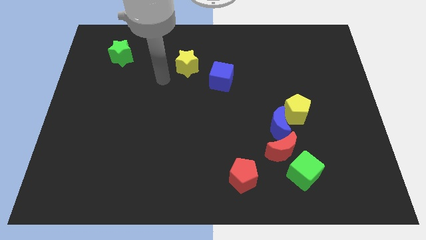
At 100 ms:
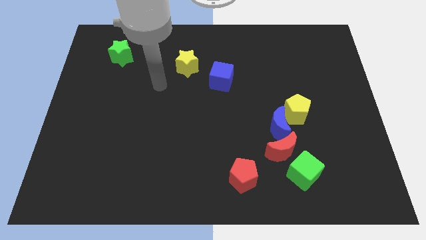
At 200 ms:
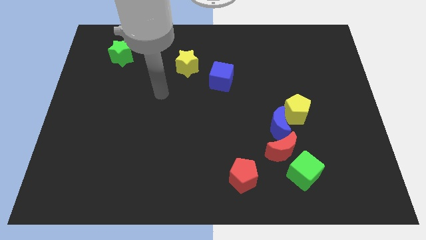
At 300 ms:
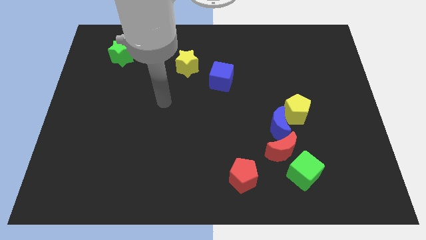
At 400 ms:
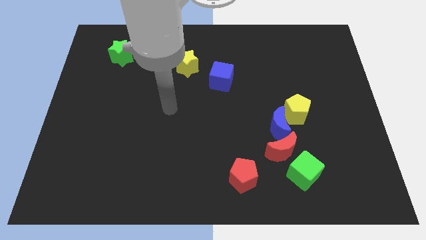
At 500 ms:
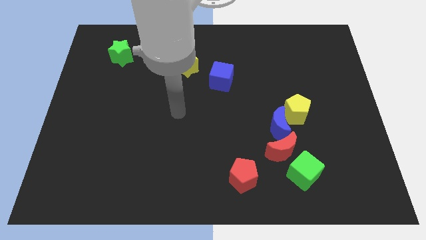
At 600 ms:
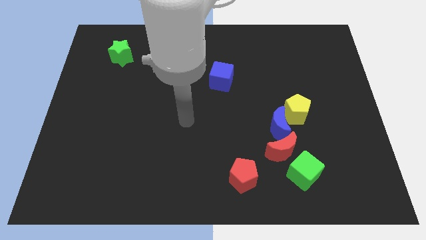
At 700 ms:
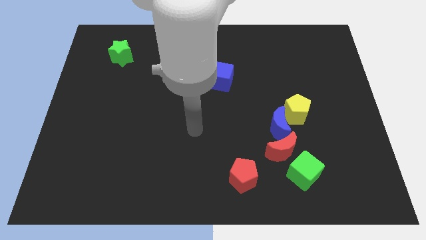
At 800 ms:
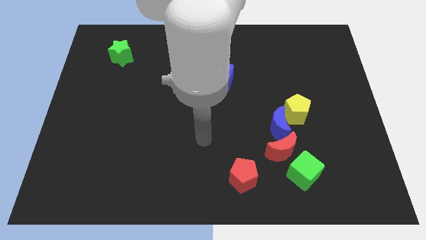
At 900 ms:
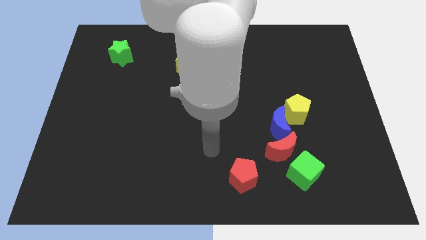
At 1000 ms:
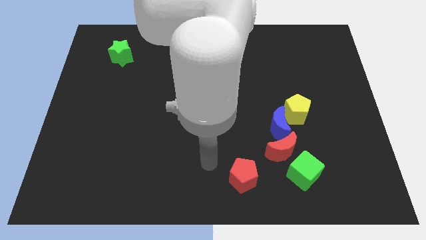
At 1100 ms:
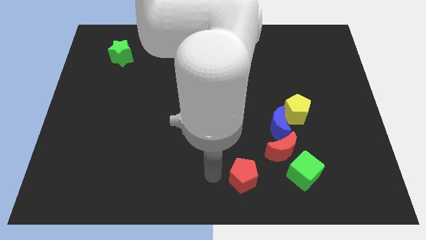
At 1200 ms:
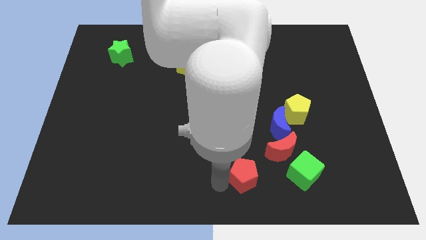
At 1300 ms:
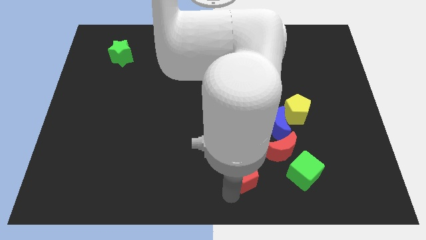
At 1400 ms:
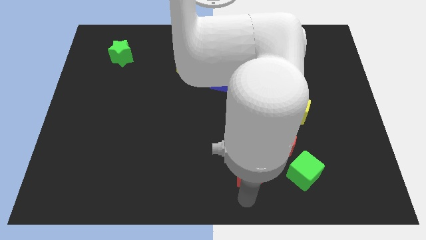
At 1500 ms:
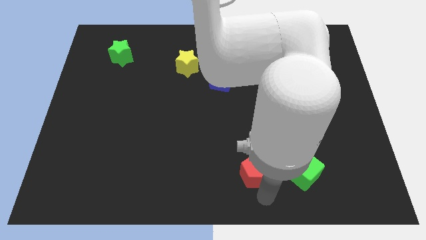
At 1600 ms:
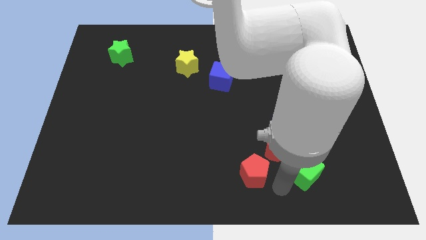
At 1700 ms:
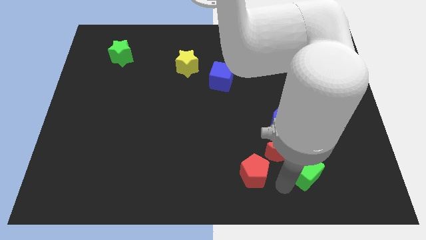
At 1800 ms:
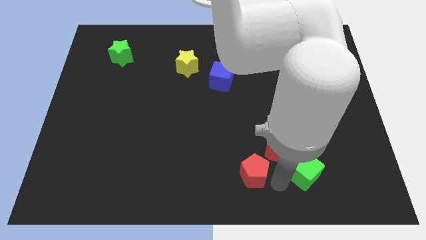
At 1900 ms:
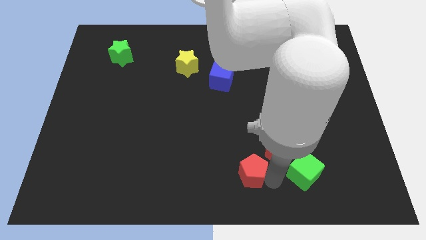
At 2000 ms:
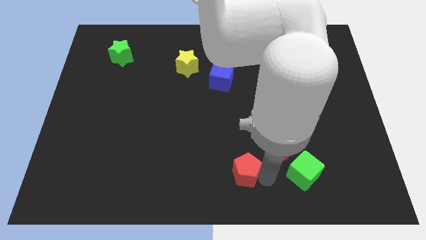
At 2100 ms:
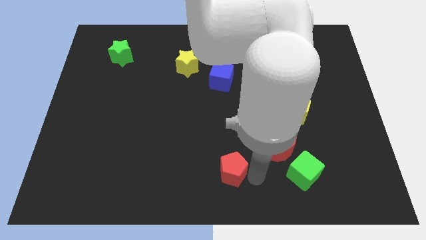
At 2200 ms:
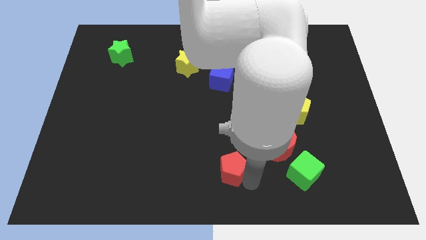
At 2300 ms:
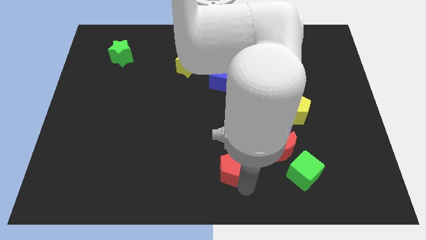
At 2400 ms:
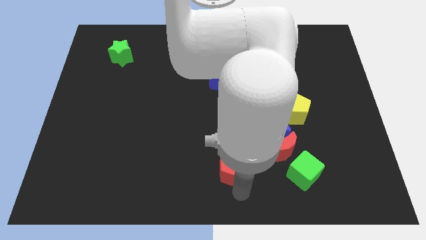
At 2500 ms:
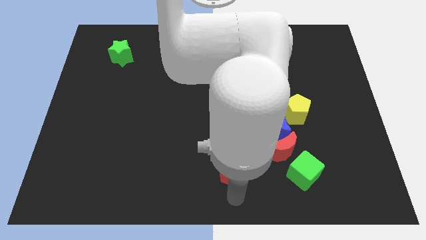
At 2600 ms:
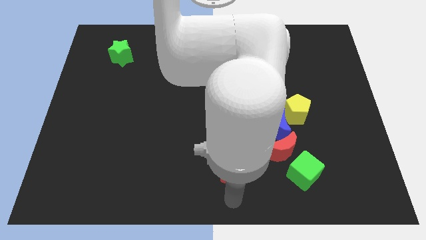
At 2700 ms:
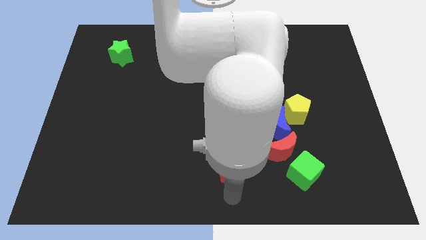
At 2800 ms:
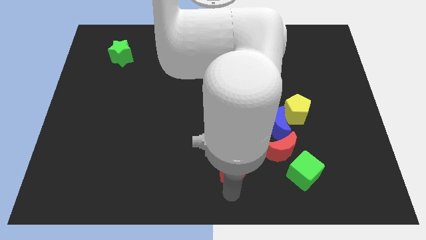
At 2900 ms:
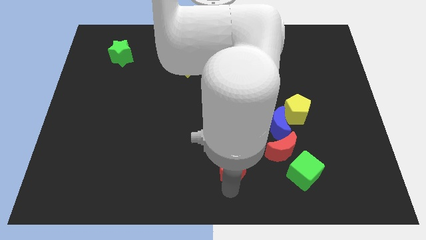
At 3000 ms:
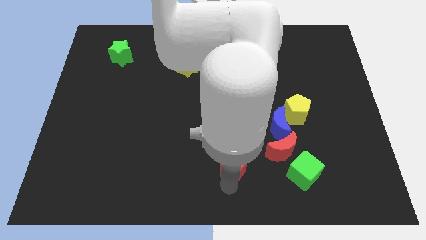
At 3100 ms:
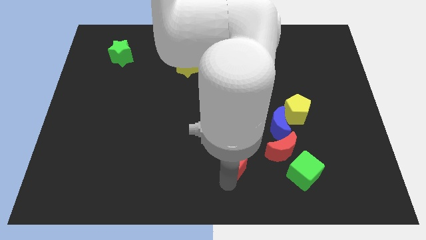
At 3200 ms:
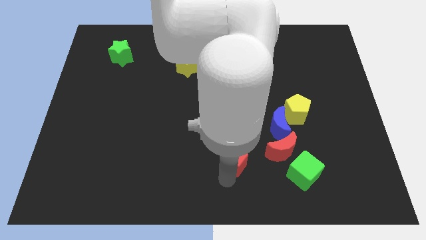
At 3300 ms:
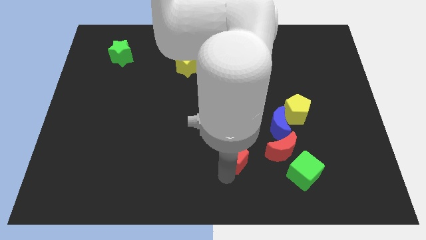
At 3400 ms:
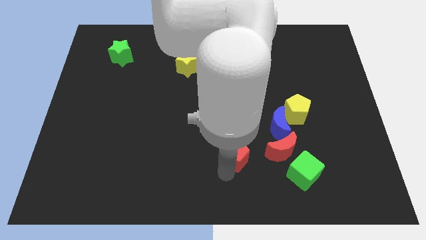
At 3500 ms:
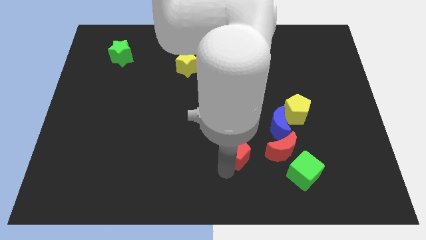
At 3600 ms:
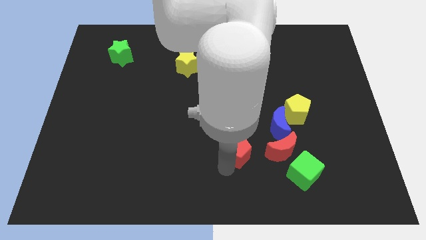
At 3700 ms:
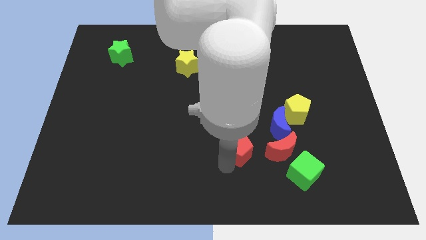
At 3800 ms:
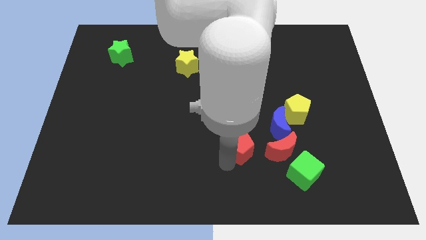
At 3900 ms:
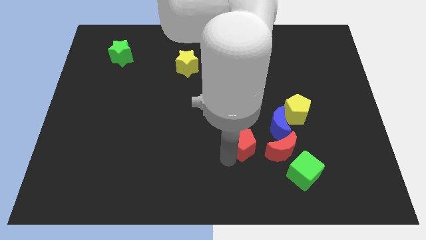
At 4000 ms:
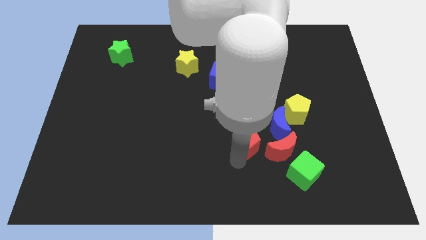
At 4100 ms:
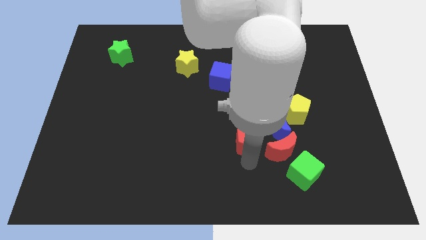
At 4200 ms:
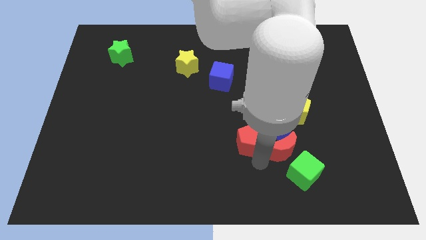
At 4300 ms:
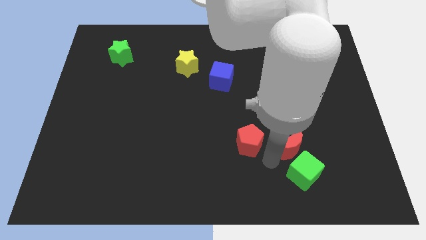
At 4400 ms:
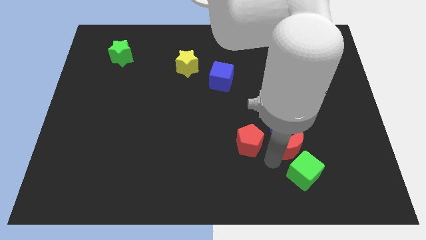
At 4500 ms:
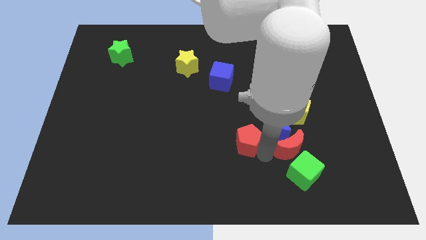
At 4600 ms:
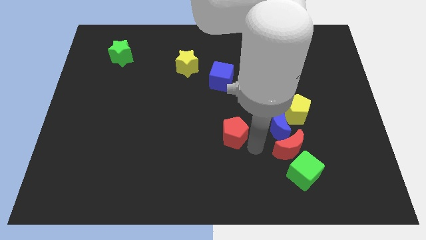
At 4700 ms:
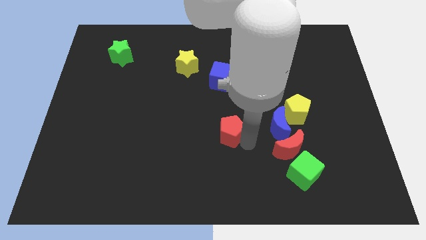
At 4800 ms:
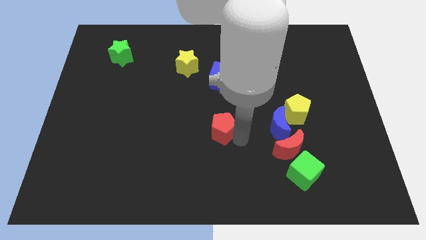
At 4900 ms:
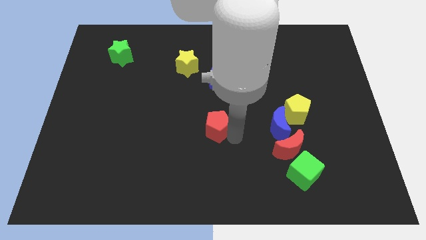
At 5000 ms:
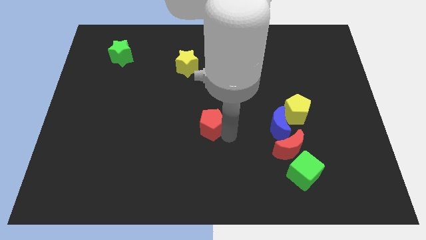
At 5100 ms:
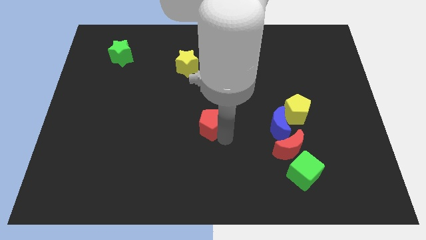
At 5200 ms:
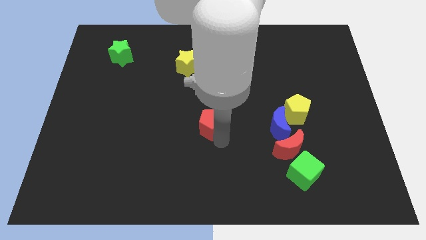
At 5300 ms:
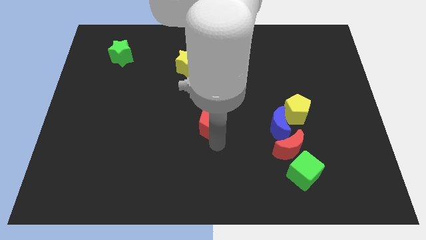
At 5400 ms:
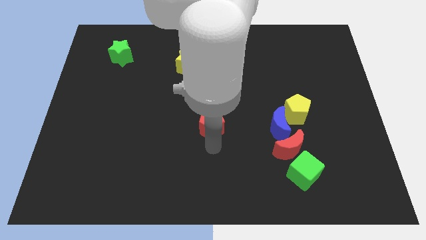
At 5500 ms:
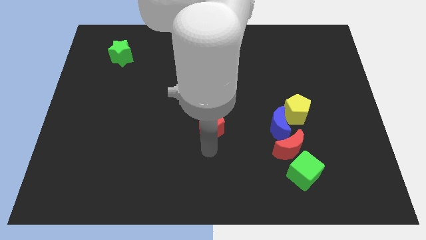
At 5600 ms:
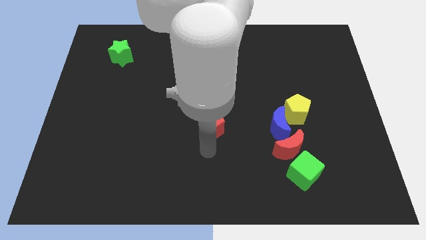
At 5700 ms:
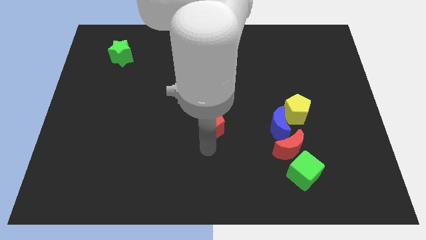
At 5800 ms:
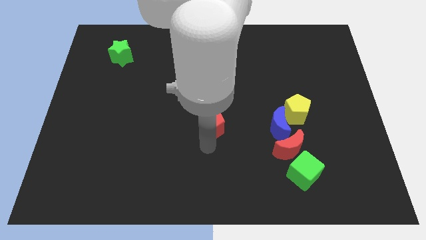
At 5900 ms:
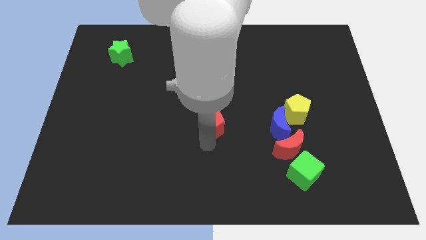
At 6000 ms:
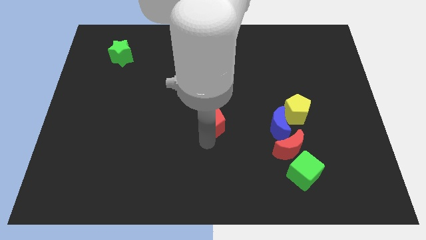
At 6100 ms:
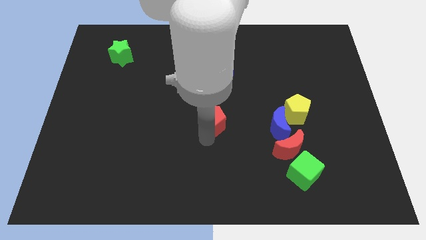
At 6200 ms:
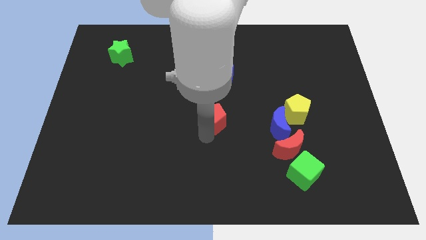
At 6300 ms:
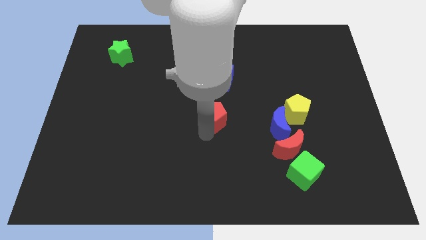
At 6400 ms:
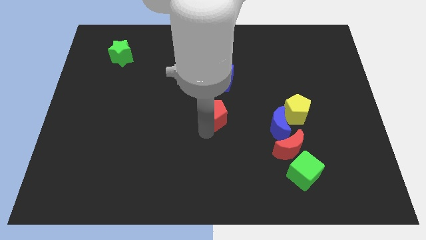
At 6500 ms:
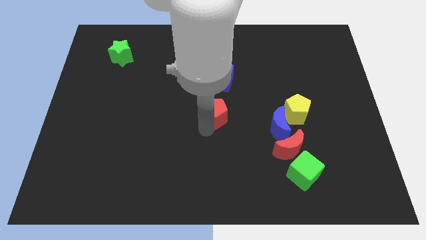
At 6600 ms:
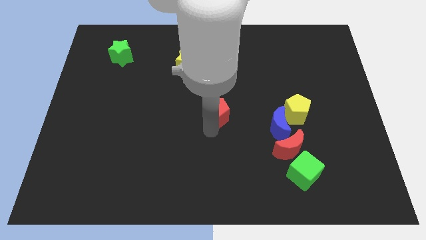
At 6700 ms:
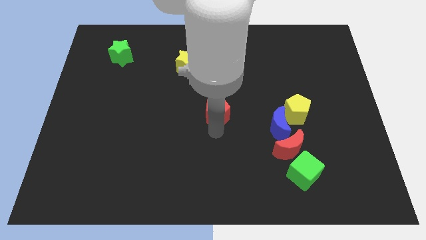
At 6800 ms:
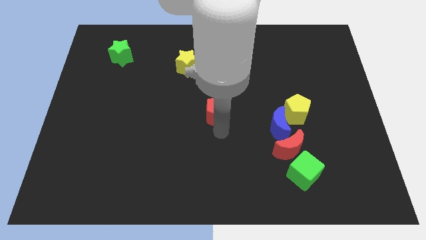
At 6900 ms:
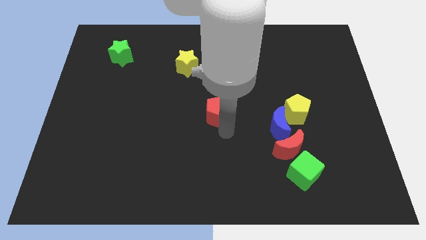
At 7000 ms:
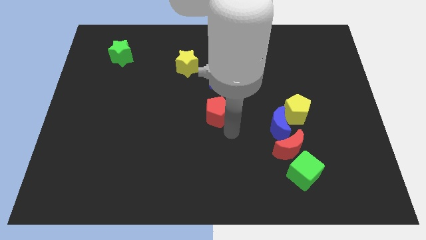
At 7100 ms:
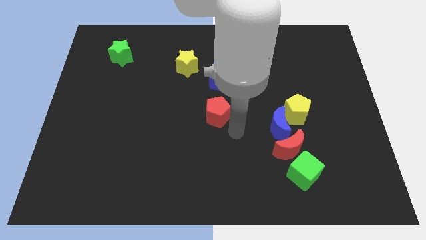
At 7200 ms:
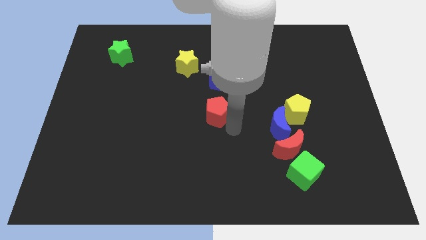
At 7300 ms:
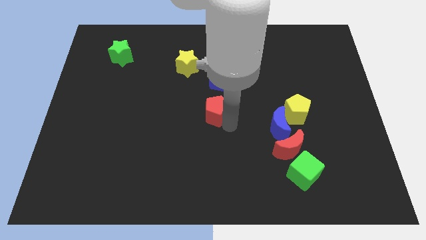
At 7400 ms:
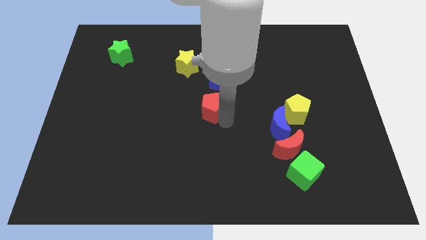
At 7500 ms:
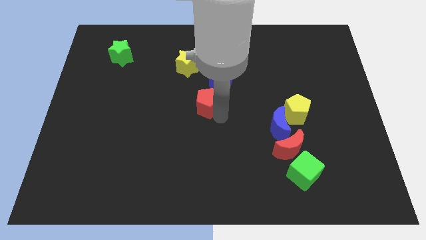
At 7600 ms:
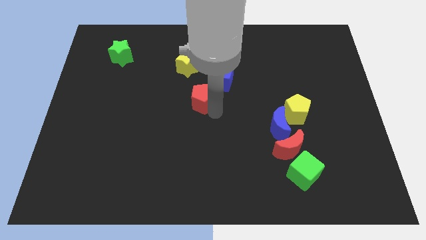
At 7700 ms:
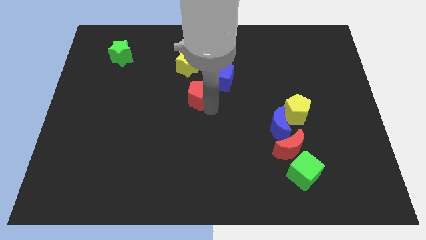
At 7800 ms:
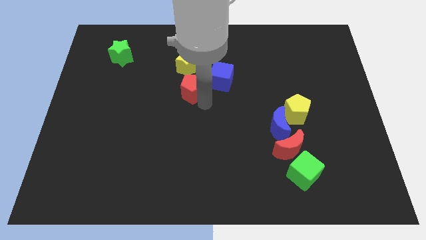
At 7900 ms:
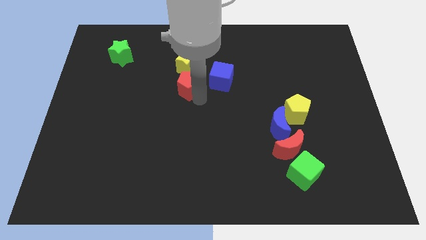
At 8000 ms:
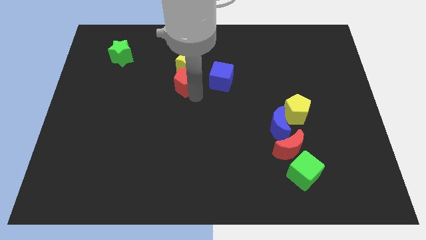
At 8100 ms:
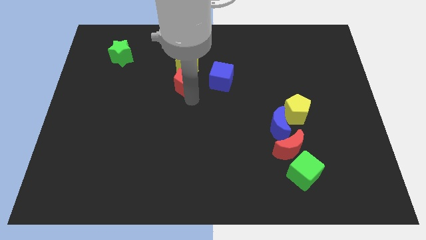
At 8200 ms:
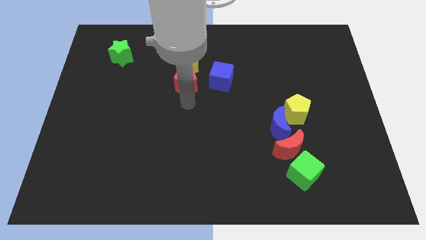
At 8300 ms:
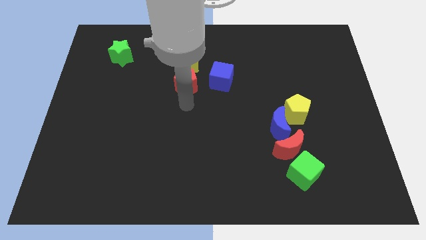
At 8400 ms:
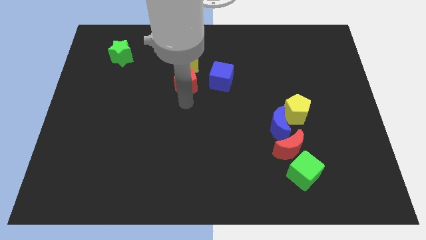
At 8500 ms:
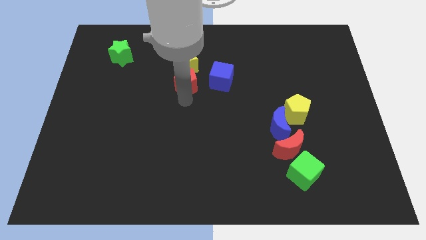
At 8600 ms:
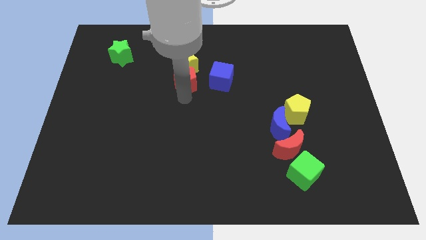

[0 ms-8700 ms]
slide the red pentagon next to the yellow star
